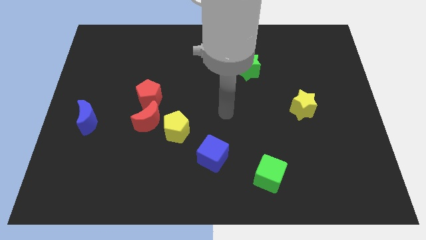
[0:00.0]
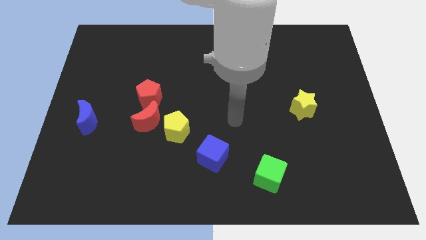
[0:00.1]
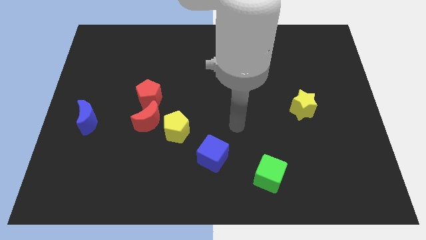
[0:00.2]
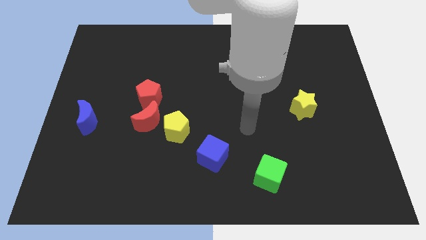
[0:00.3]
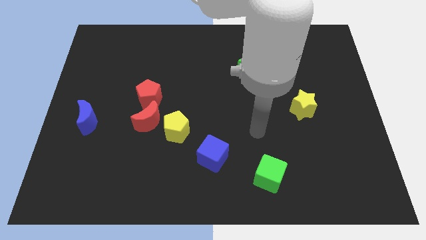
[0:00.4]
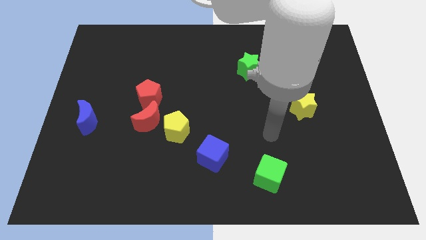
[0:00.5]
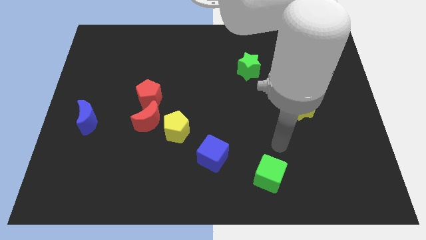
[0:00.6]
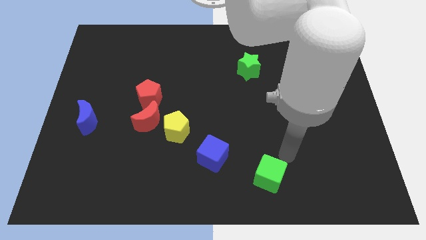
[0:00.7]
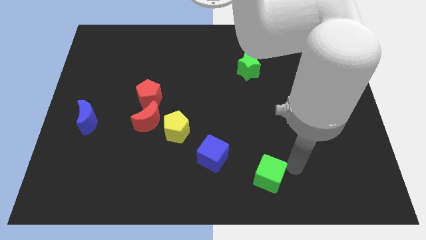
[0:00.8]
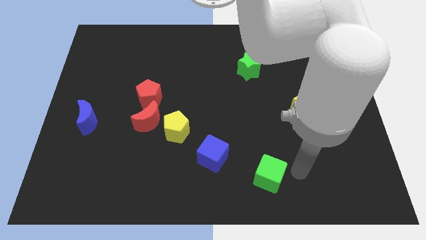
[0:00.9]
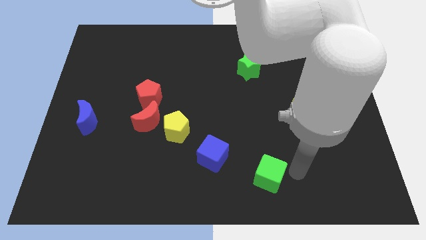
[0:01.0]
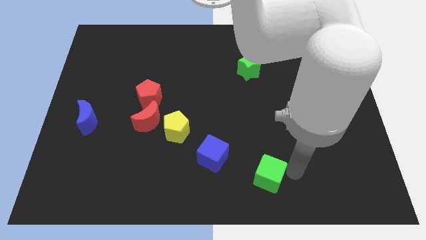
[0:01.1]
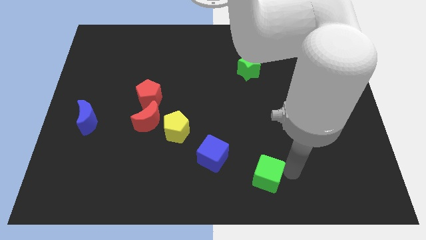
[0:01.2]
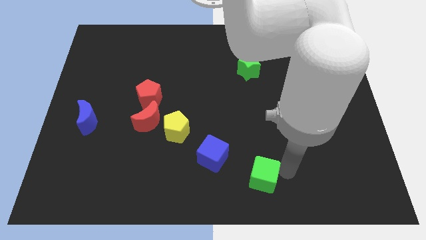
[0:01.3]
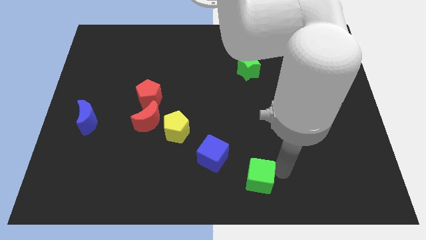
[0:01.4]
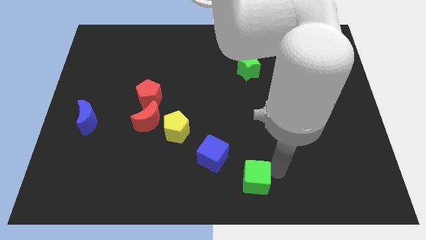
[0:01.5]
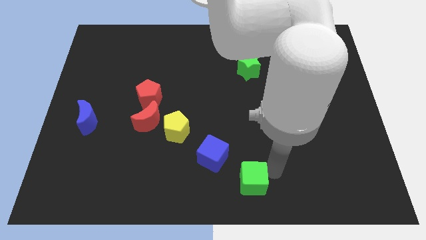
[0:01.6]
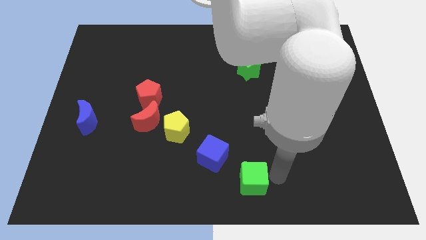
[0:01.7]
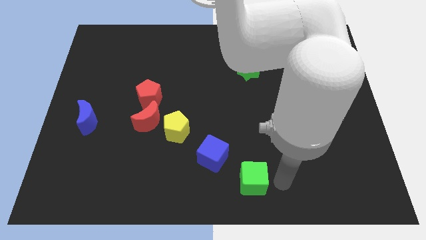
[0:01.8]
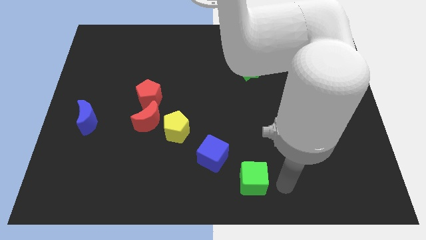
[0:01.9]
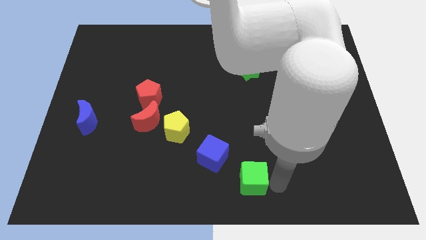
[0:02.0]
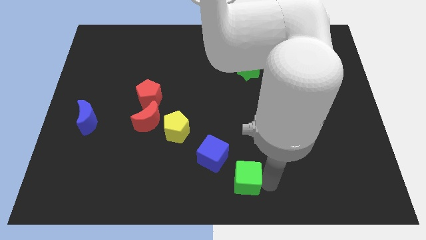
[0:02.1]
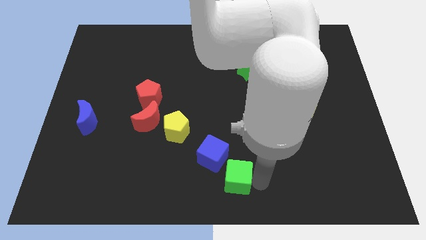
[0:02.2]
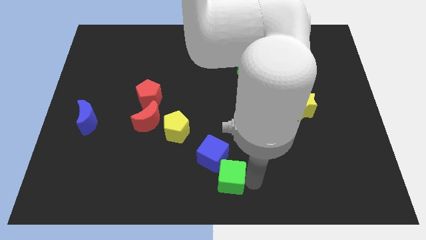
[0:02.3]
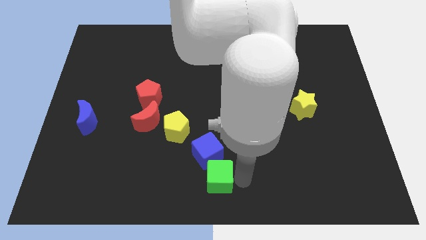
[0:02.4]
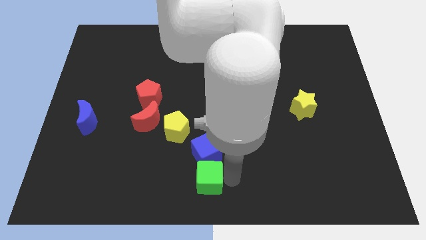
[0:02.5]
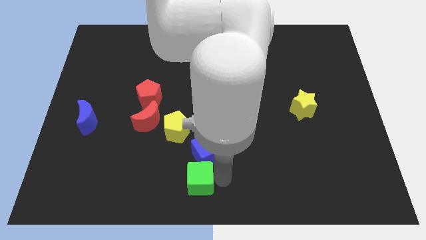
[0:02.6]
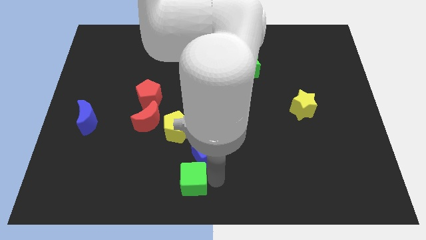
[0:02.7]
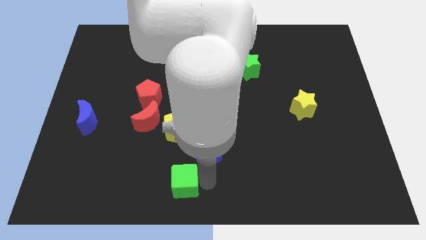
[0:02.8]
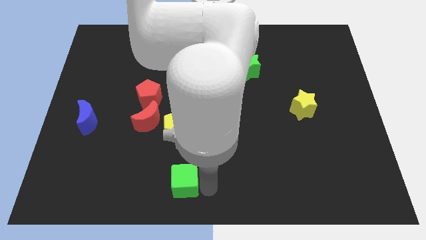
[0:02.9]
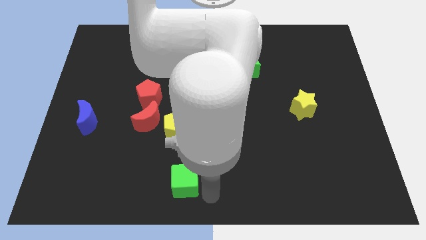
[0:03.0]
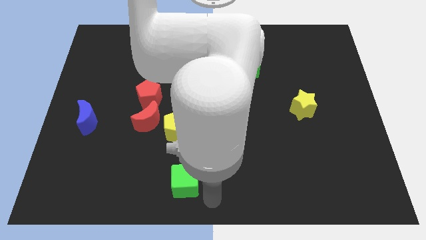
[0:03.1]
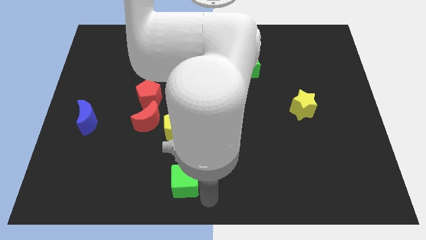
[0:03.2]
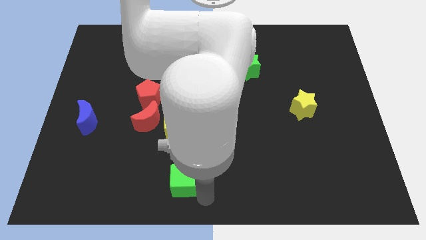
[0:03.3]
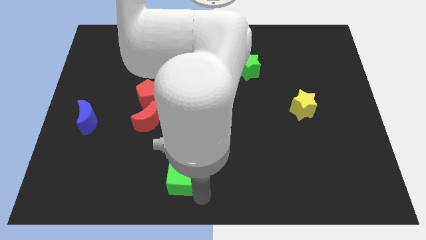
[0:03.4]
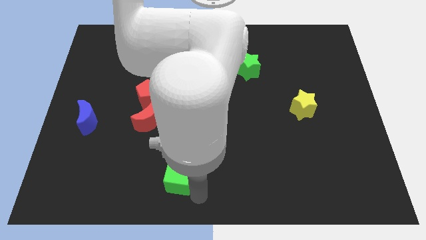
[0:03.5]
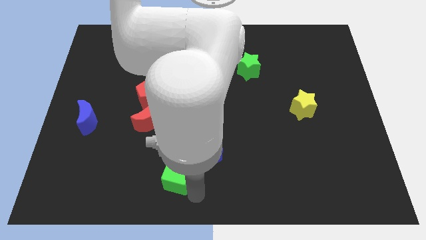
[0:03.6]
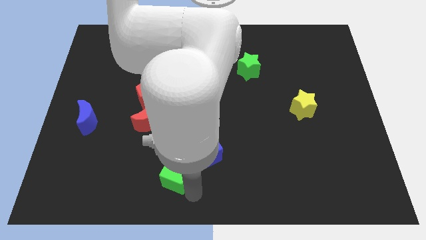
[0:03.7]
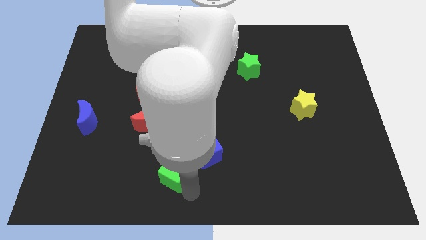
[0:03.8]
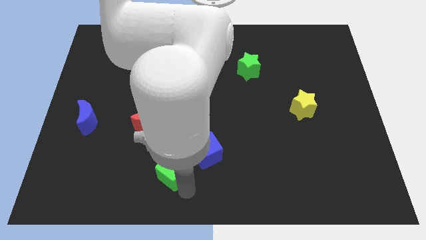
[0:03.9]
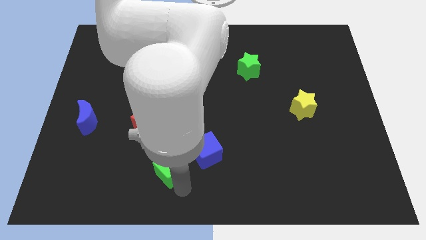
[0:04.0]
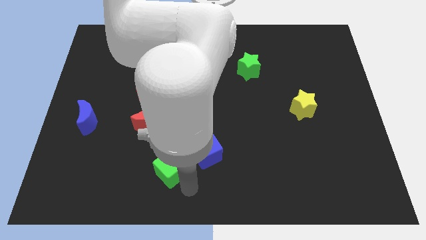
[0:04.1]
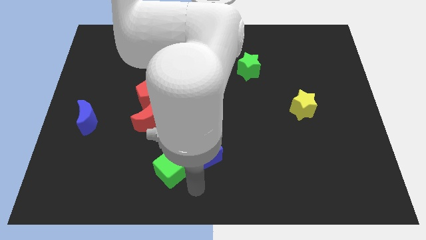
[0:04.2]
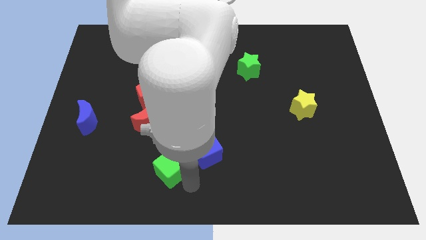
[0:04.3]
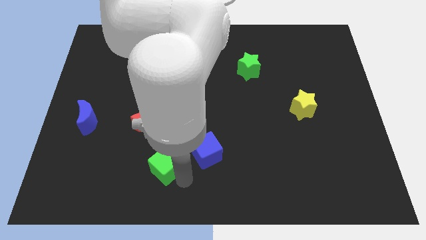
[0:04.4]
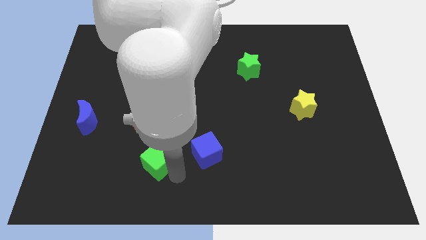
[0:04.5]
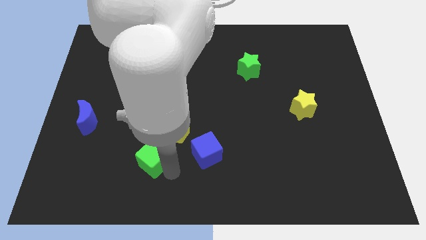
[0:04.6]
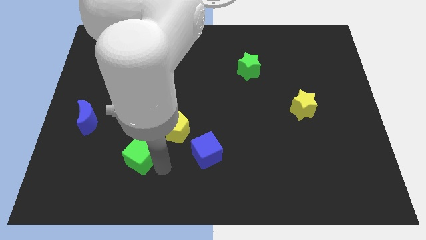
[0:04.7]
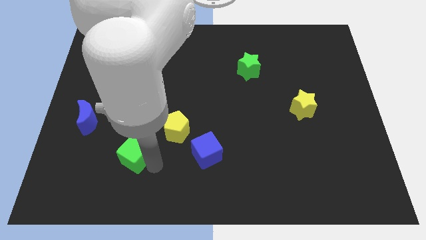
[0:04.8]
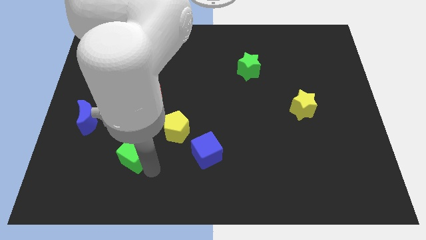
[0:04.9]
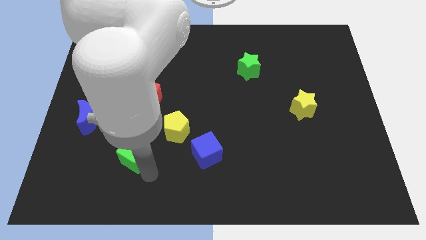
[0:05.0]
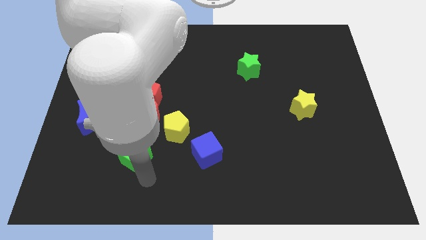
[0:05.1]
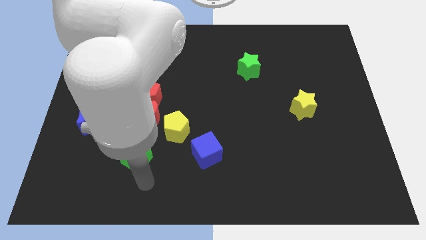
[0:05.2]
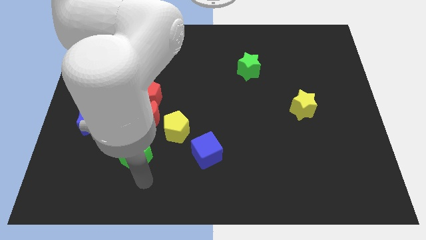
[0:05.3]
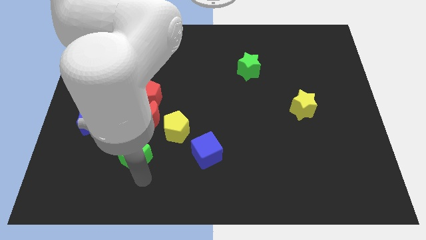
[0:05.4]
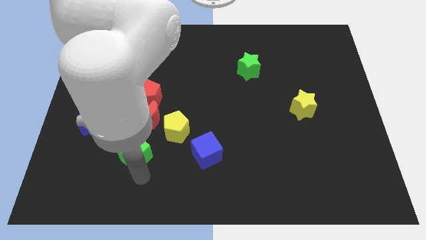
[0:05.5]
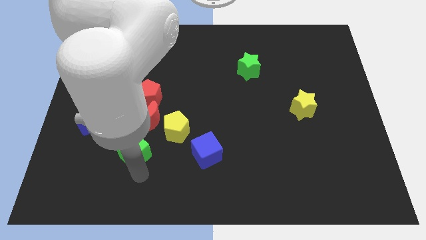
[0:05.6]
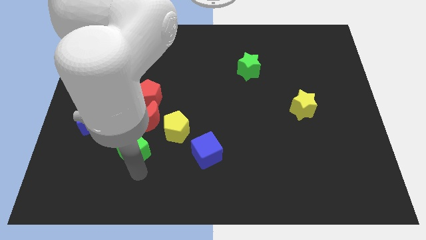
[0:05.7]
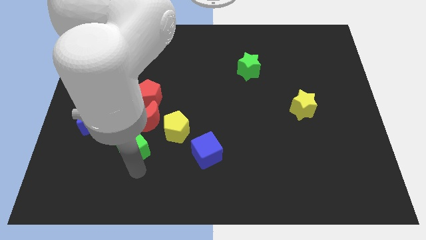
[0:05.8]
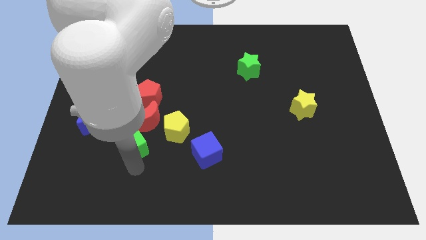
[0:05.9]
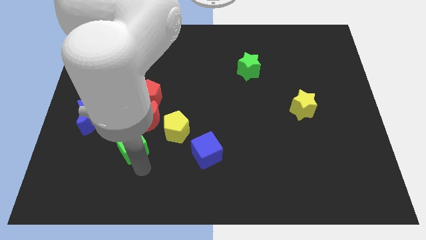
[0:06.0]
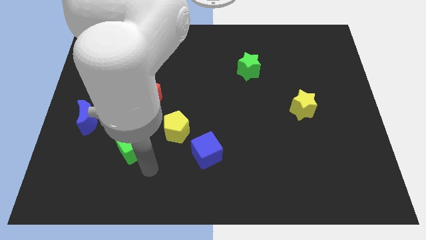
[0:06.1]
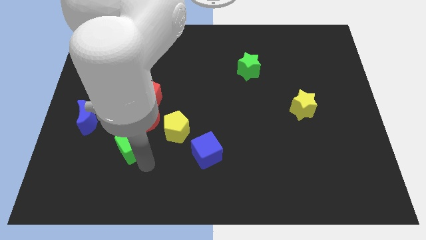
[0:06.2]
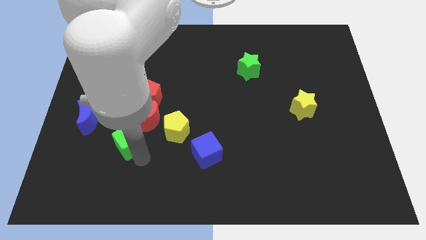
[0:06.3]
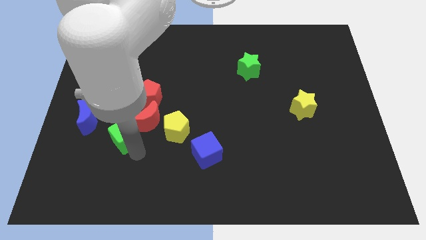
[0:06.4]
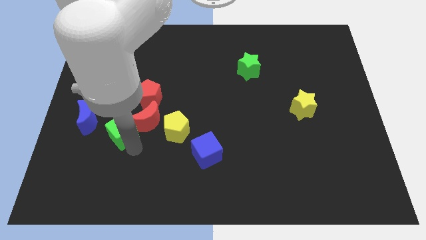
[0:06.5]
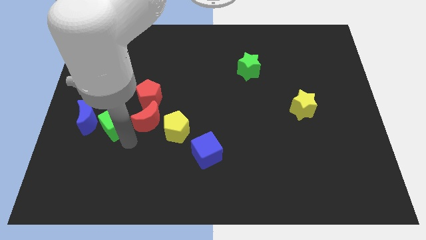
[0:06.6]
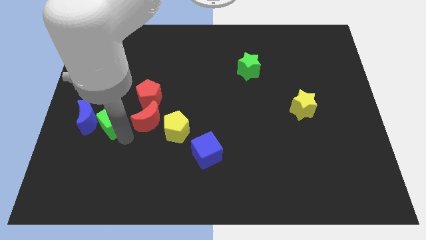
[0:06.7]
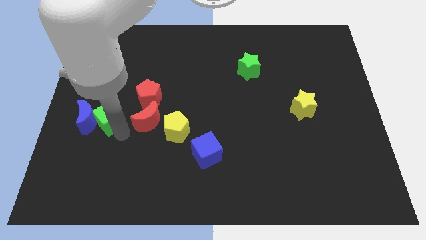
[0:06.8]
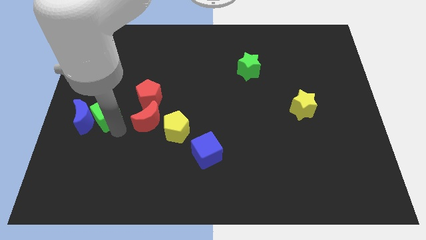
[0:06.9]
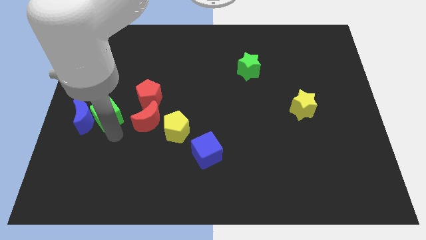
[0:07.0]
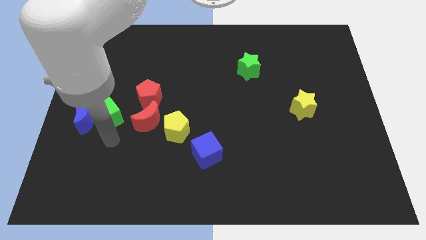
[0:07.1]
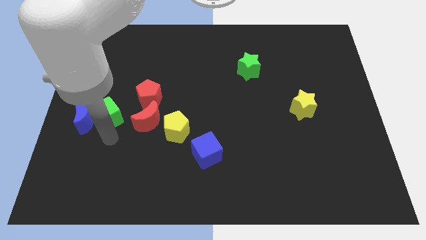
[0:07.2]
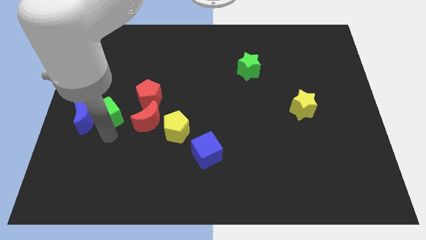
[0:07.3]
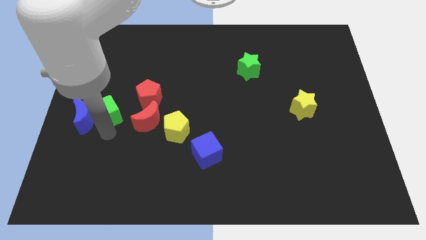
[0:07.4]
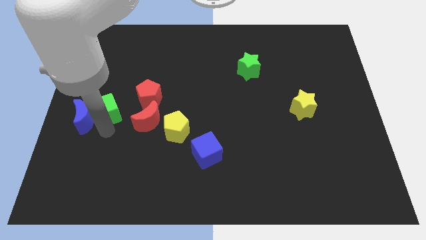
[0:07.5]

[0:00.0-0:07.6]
push the green cube to the left side of the red pentagon
